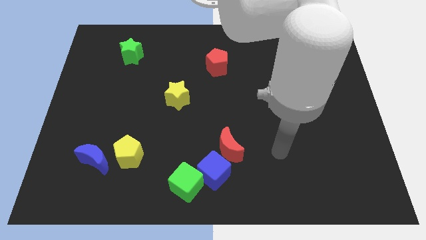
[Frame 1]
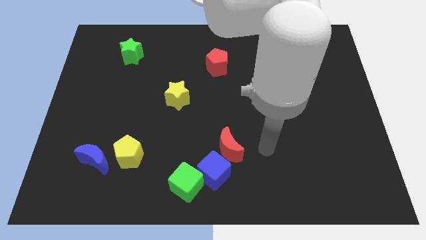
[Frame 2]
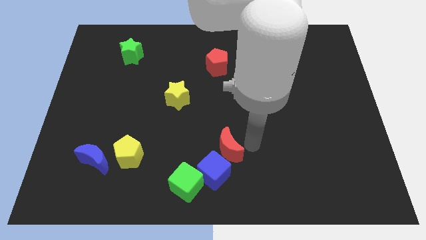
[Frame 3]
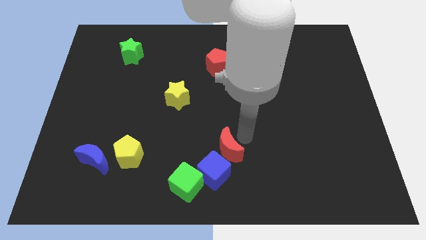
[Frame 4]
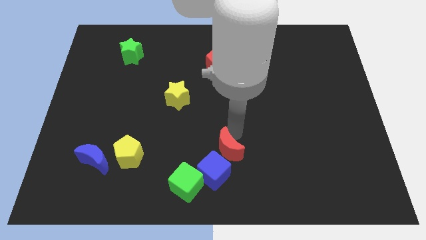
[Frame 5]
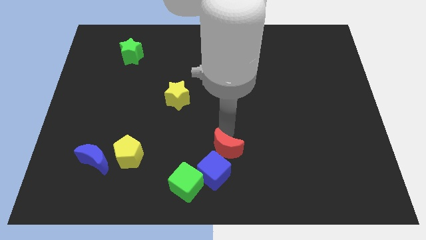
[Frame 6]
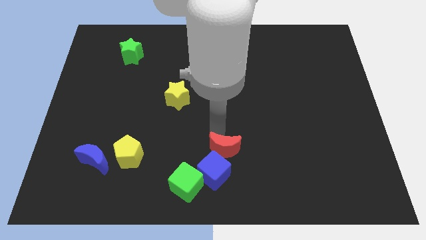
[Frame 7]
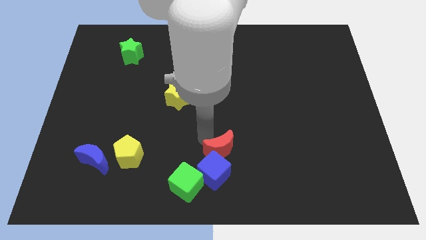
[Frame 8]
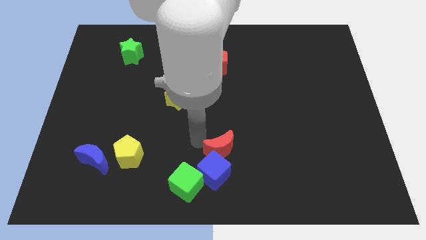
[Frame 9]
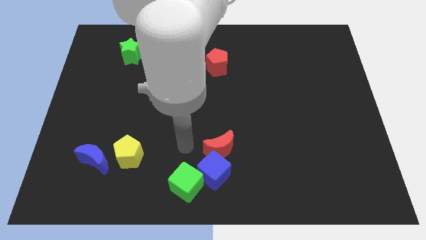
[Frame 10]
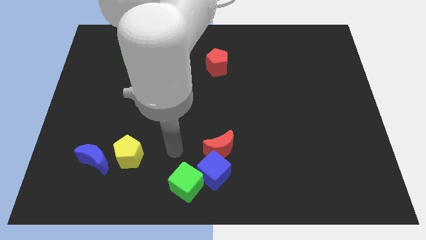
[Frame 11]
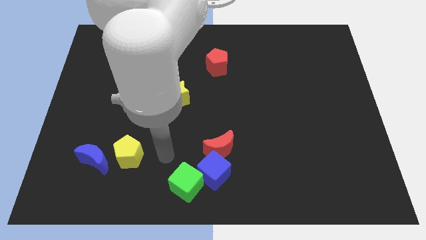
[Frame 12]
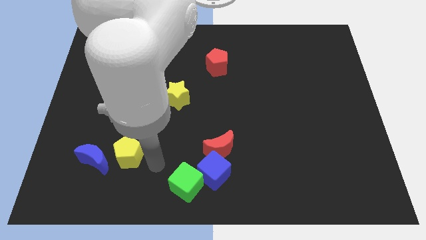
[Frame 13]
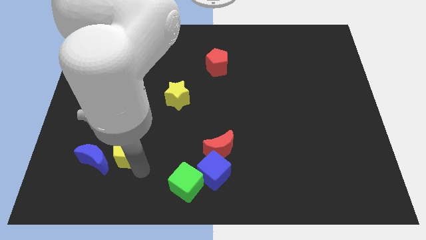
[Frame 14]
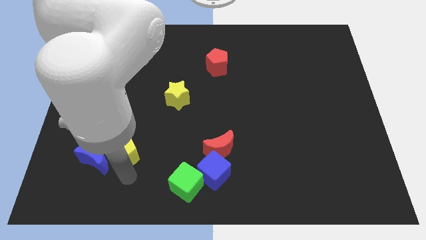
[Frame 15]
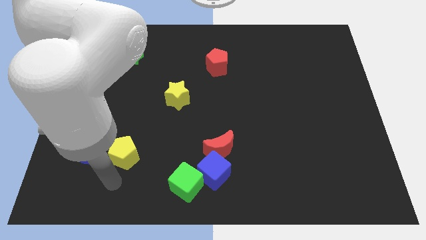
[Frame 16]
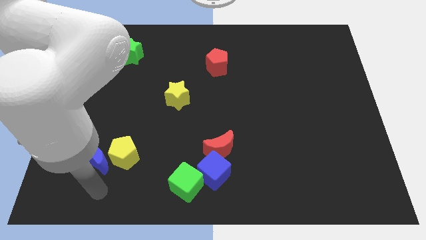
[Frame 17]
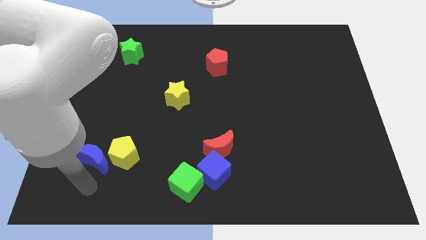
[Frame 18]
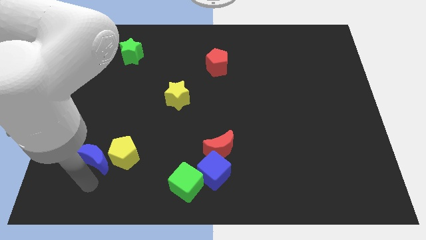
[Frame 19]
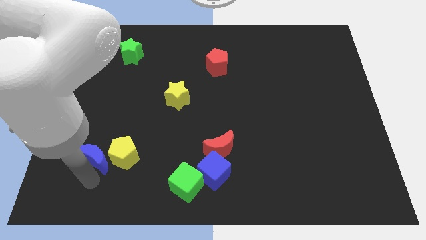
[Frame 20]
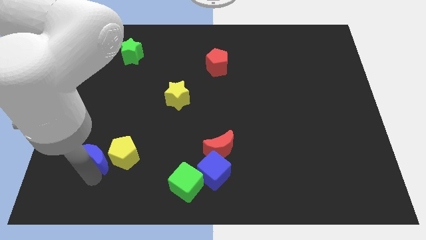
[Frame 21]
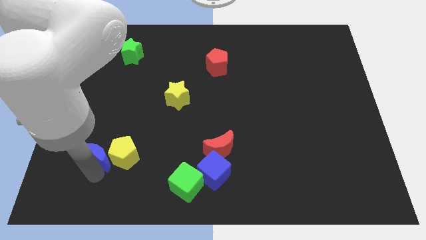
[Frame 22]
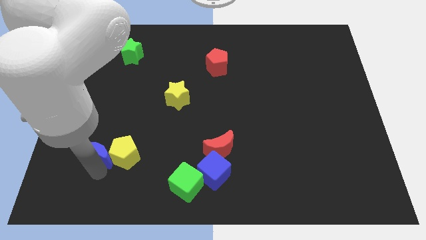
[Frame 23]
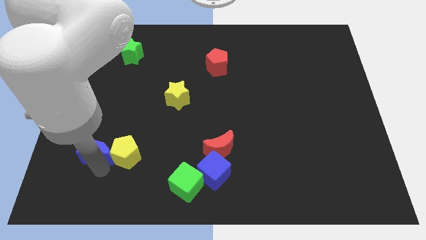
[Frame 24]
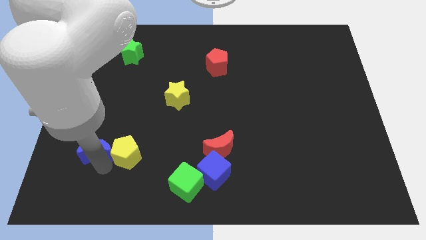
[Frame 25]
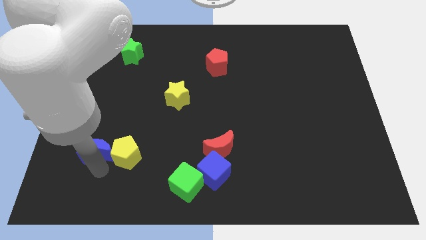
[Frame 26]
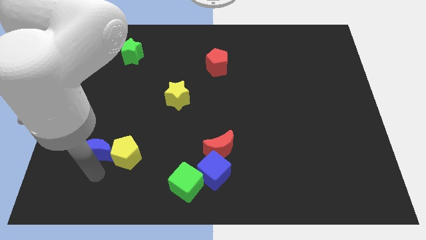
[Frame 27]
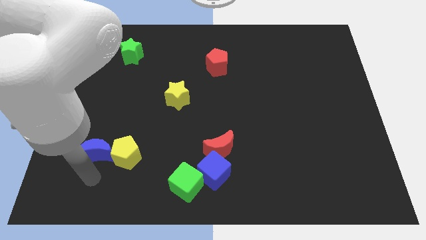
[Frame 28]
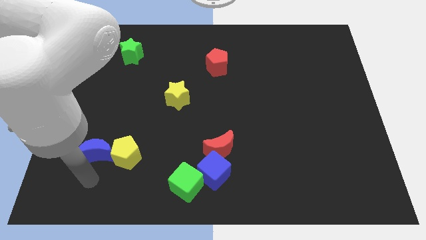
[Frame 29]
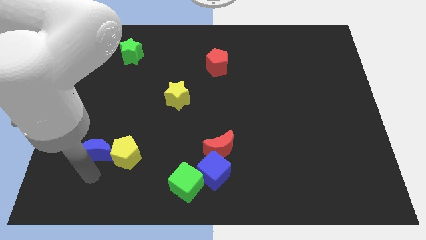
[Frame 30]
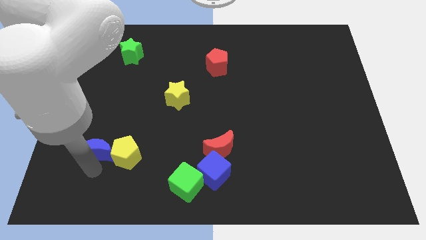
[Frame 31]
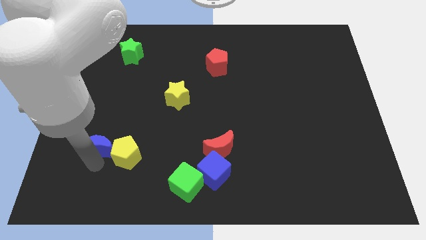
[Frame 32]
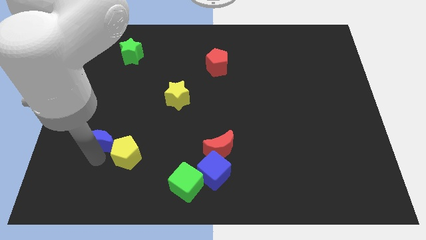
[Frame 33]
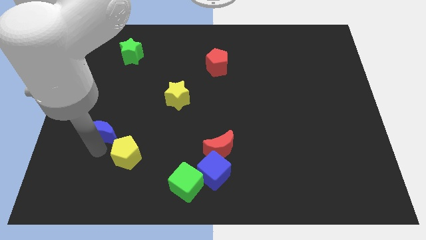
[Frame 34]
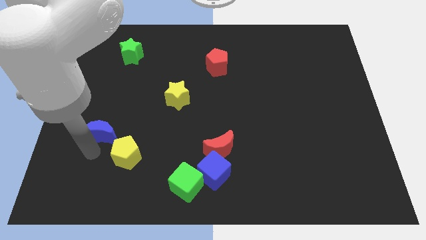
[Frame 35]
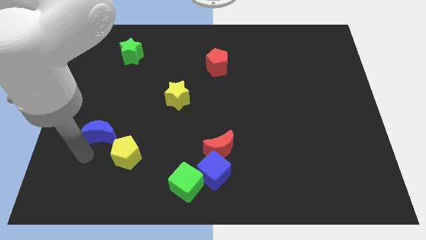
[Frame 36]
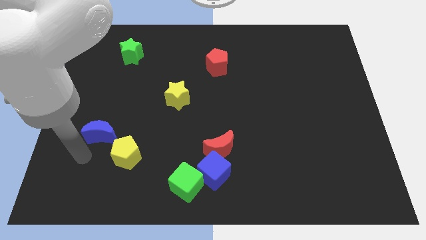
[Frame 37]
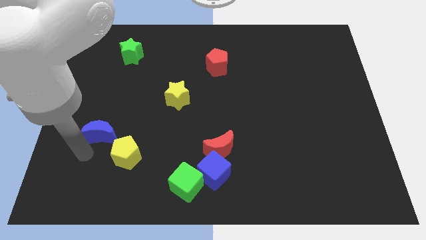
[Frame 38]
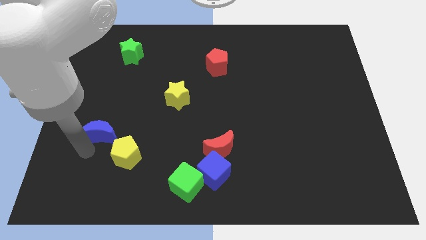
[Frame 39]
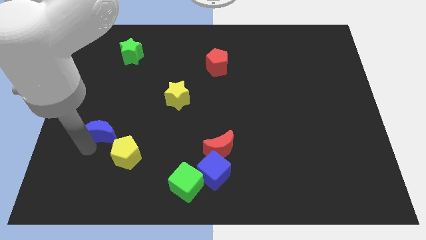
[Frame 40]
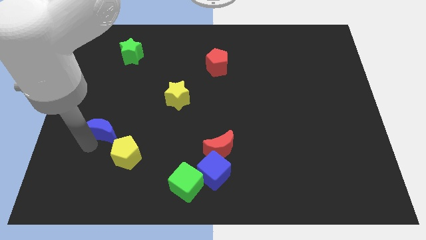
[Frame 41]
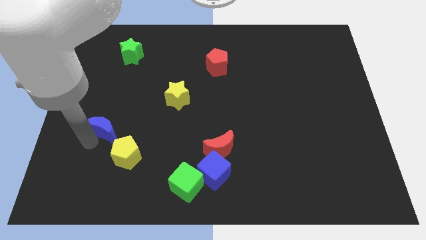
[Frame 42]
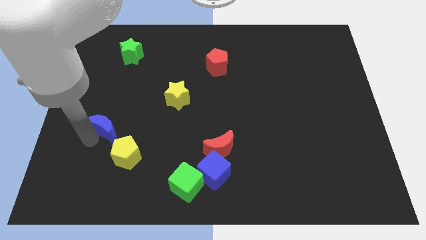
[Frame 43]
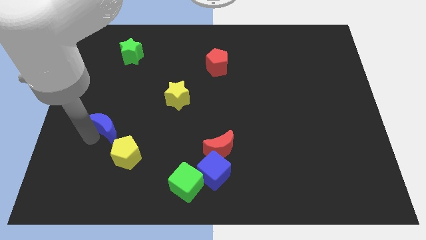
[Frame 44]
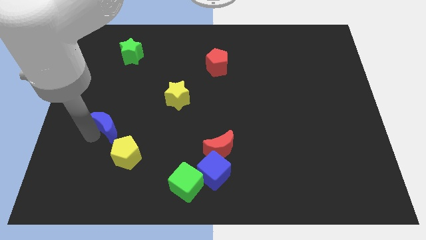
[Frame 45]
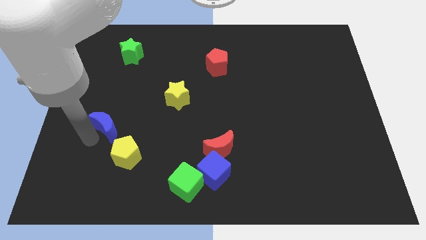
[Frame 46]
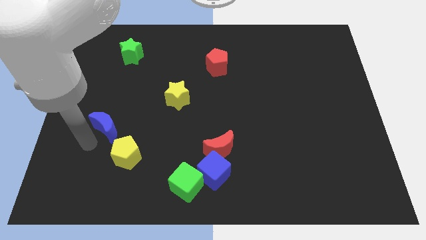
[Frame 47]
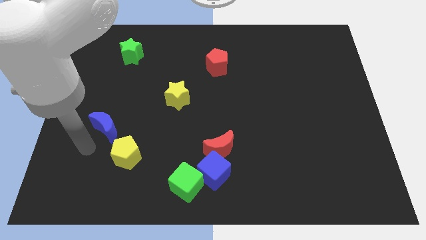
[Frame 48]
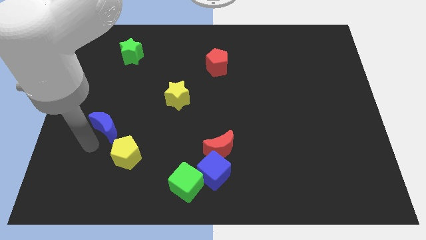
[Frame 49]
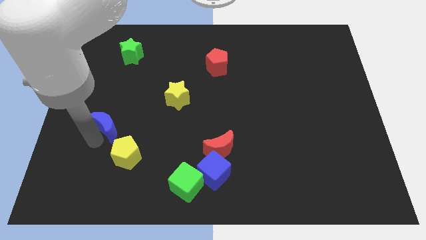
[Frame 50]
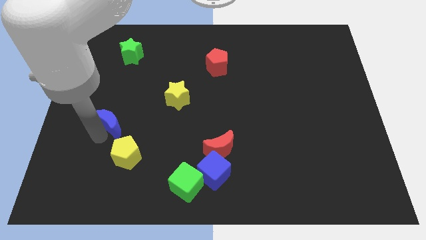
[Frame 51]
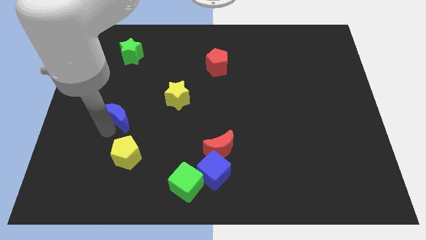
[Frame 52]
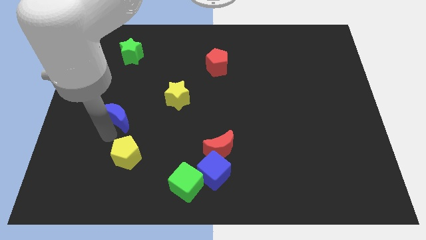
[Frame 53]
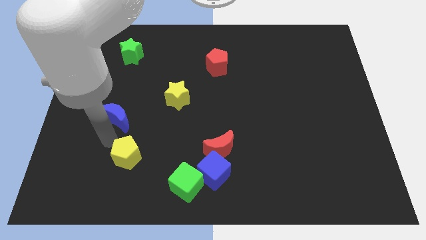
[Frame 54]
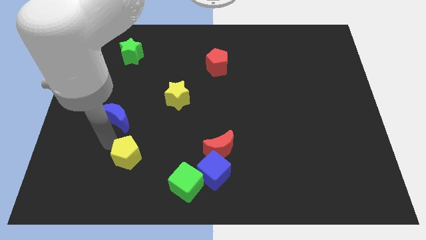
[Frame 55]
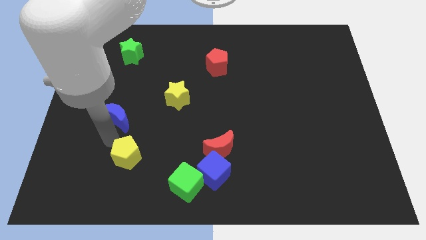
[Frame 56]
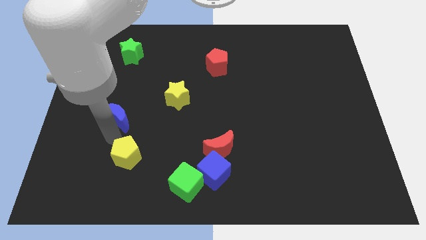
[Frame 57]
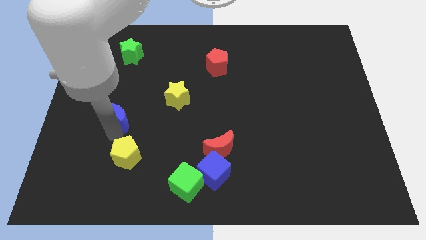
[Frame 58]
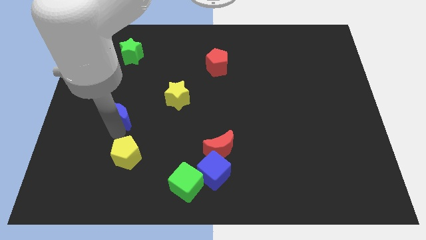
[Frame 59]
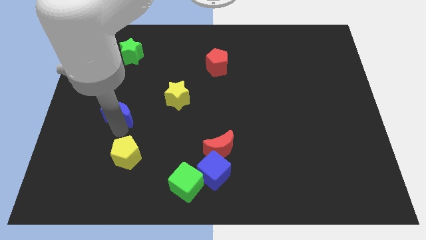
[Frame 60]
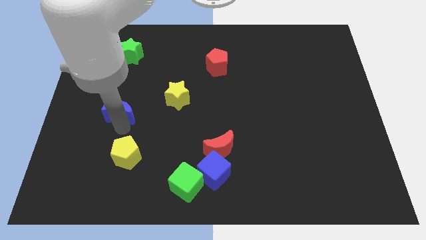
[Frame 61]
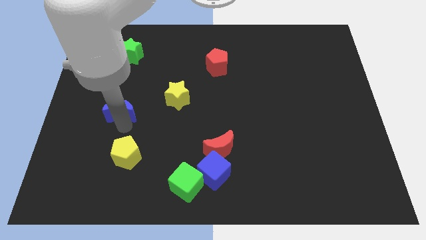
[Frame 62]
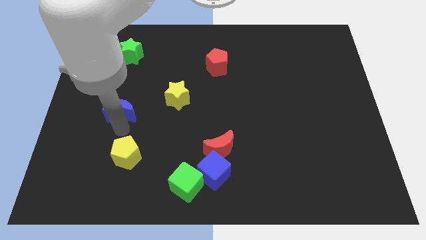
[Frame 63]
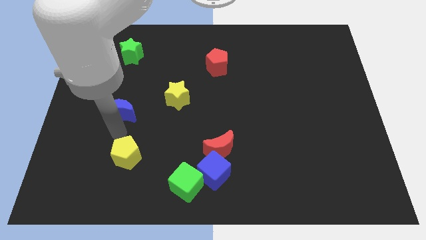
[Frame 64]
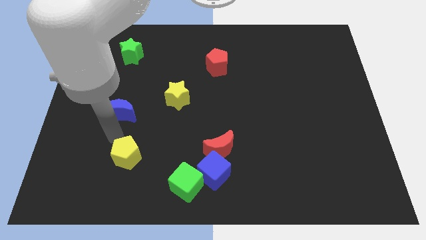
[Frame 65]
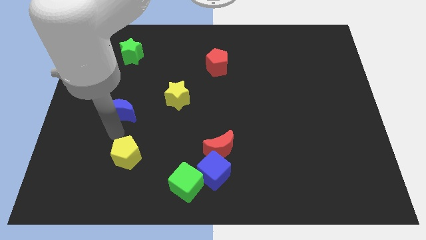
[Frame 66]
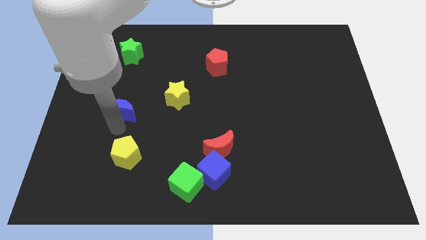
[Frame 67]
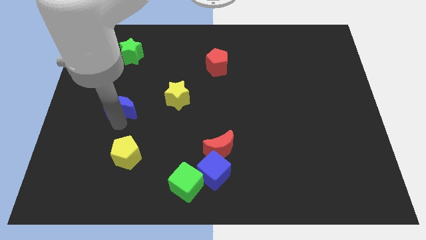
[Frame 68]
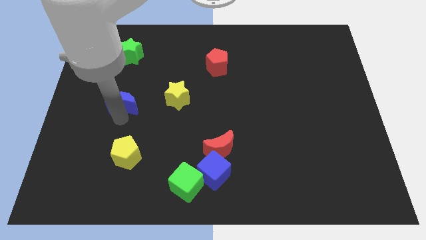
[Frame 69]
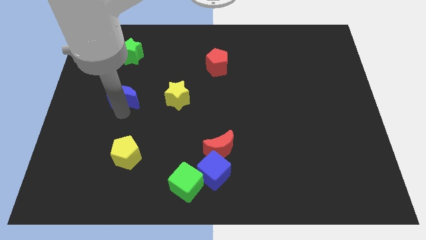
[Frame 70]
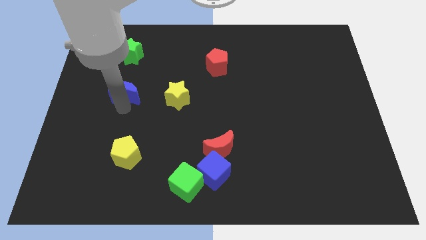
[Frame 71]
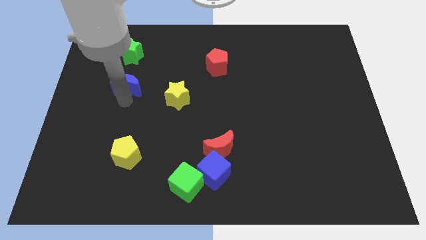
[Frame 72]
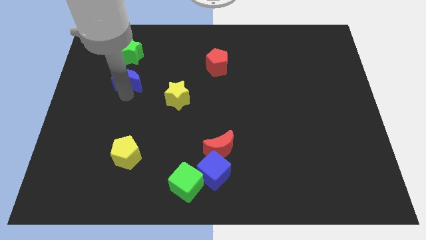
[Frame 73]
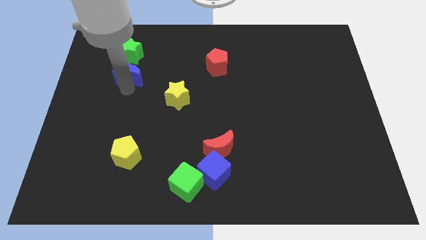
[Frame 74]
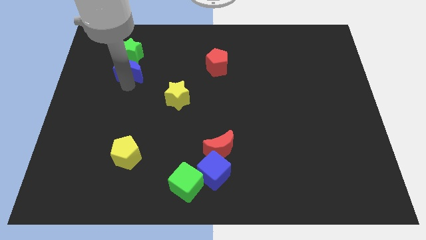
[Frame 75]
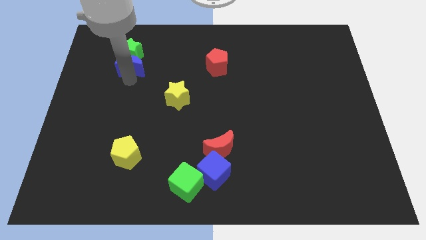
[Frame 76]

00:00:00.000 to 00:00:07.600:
push the blue moon towards the green star
